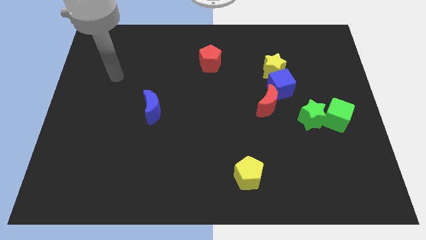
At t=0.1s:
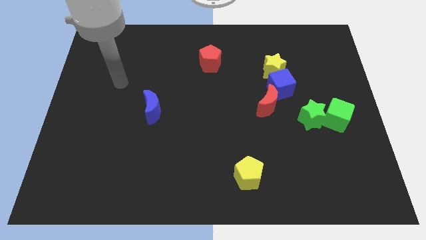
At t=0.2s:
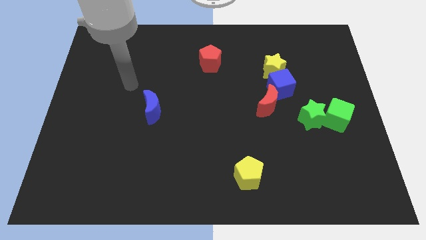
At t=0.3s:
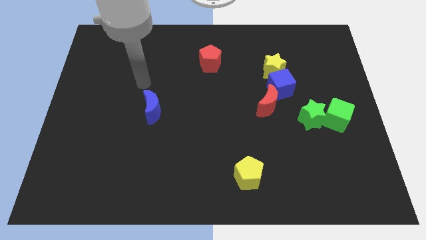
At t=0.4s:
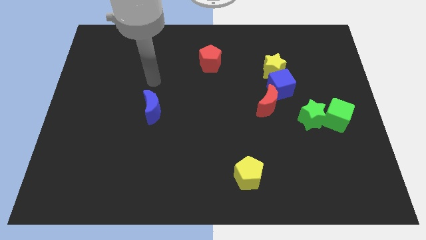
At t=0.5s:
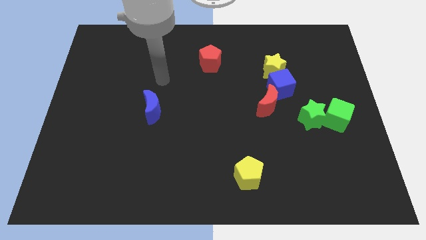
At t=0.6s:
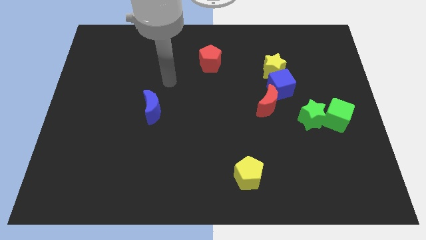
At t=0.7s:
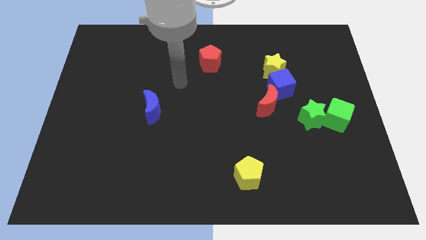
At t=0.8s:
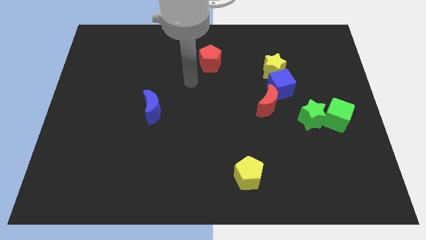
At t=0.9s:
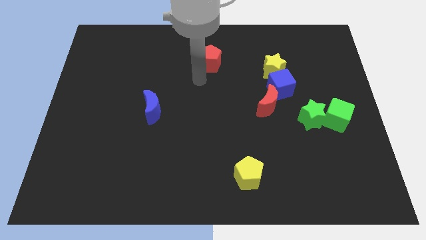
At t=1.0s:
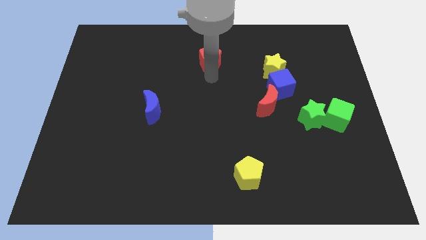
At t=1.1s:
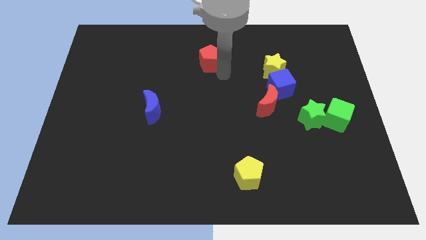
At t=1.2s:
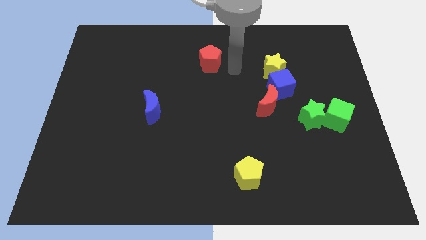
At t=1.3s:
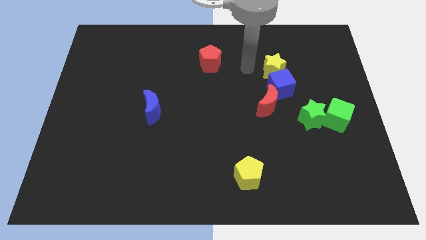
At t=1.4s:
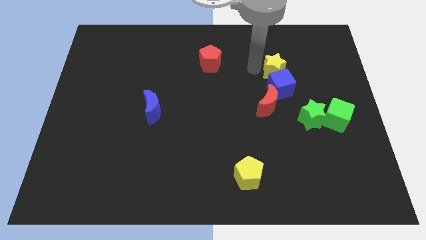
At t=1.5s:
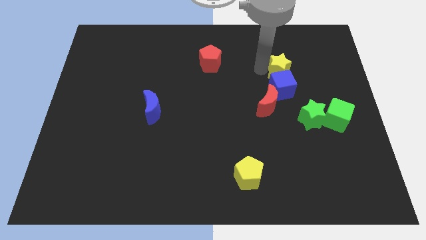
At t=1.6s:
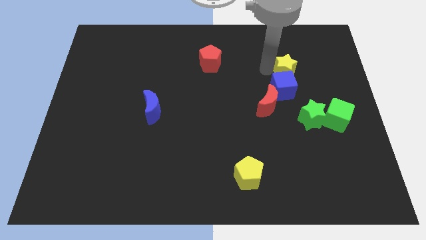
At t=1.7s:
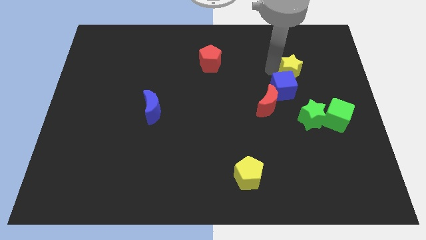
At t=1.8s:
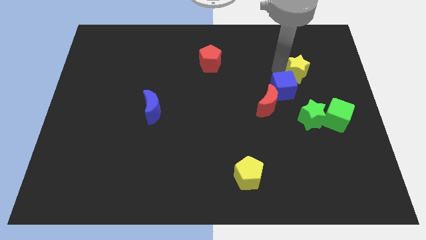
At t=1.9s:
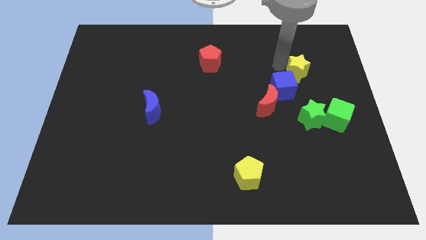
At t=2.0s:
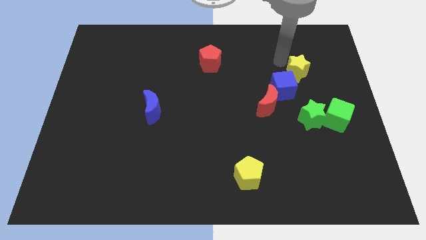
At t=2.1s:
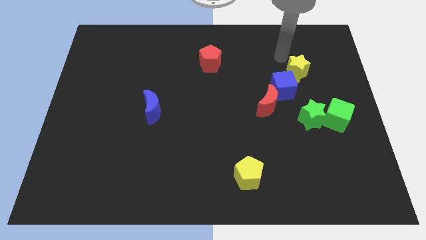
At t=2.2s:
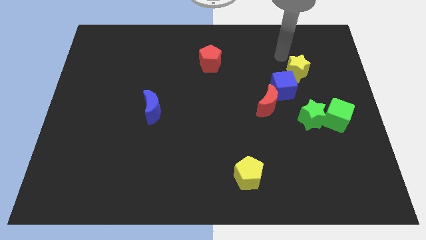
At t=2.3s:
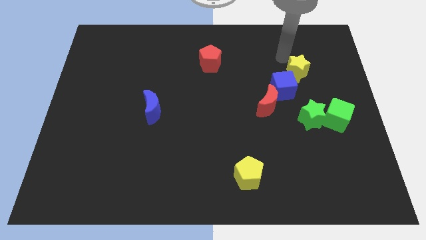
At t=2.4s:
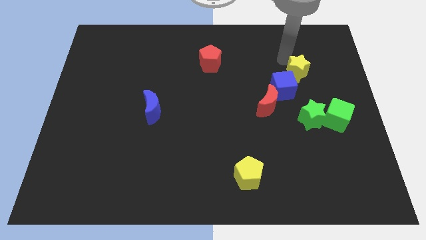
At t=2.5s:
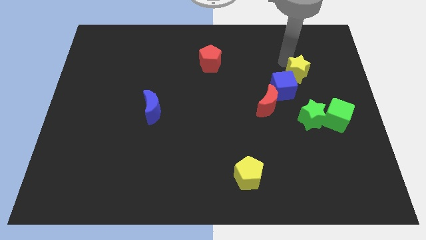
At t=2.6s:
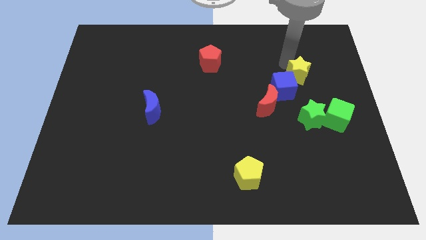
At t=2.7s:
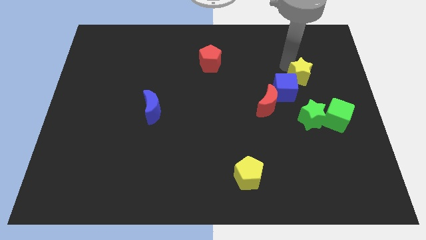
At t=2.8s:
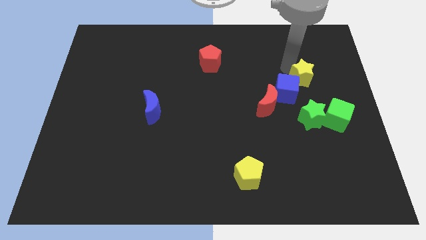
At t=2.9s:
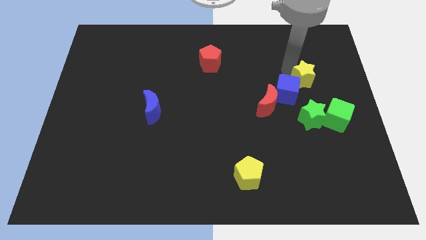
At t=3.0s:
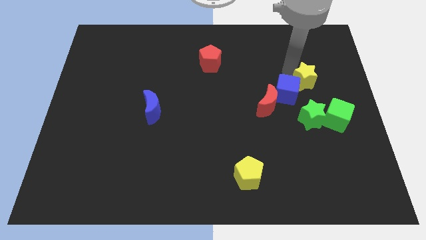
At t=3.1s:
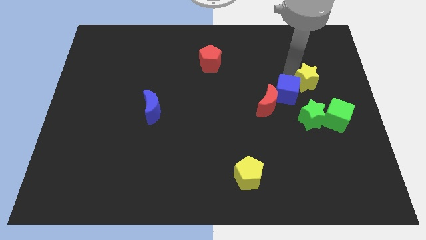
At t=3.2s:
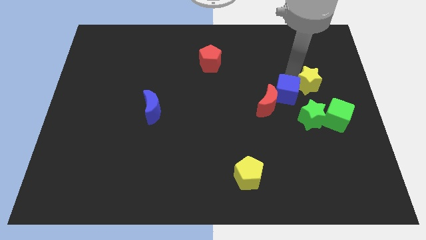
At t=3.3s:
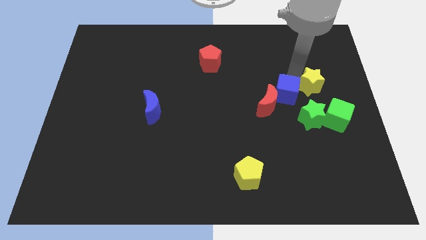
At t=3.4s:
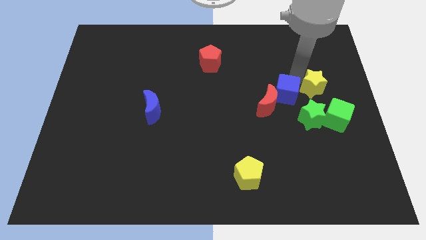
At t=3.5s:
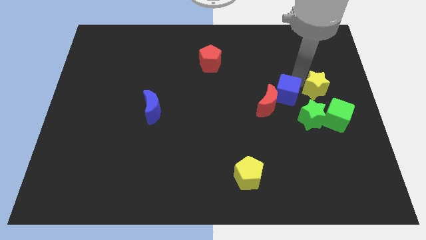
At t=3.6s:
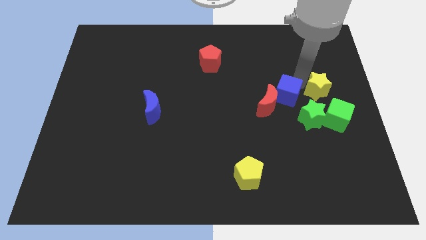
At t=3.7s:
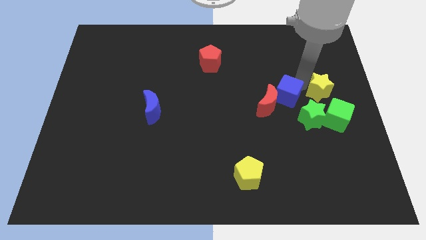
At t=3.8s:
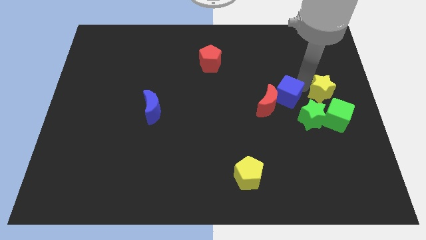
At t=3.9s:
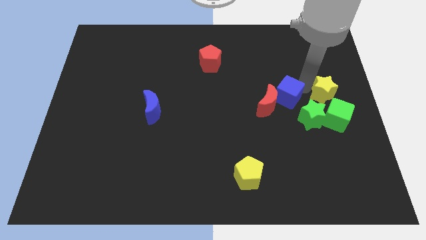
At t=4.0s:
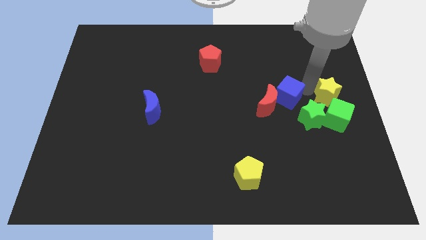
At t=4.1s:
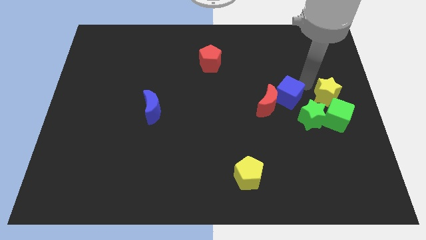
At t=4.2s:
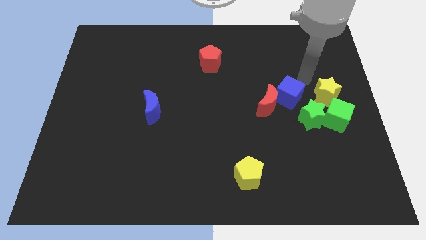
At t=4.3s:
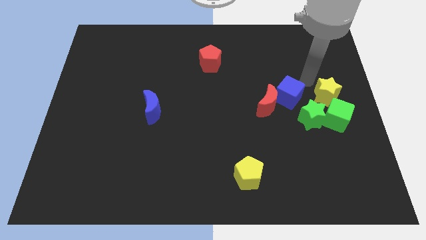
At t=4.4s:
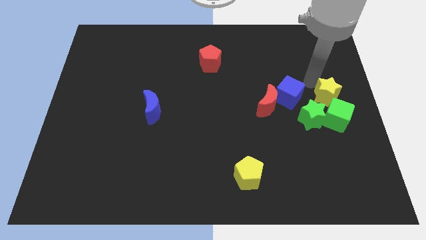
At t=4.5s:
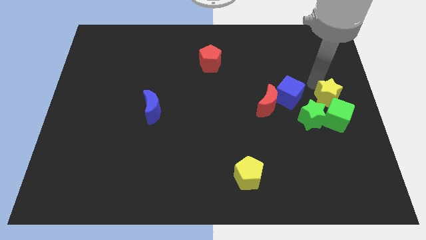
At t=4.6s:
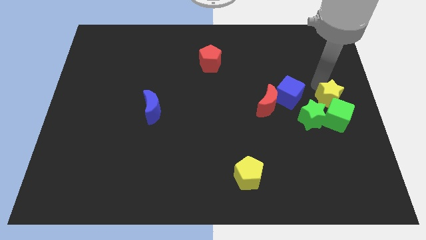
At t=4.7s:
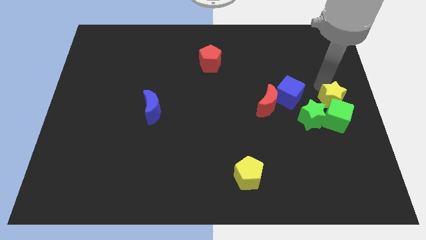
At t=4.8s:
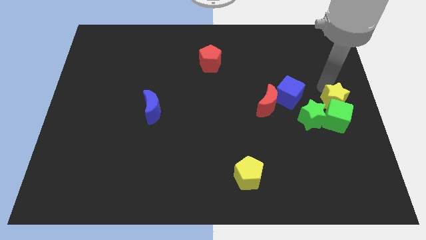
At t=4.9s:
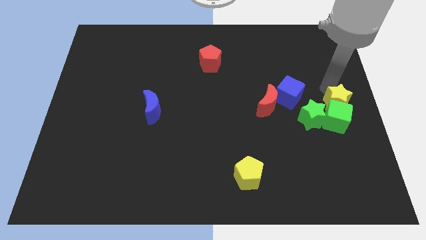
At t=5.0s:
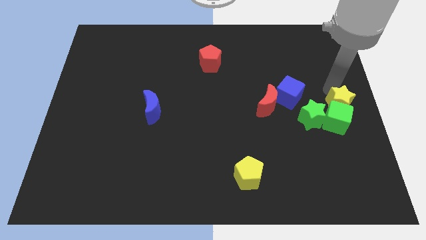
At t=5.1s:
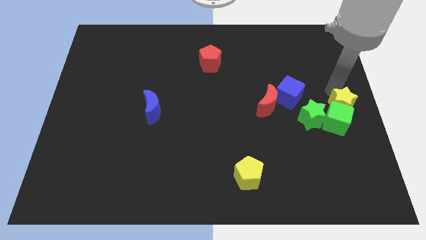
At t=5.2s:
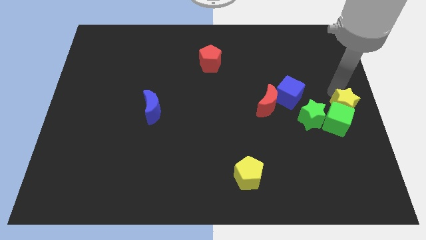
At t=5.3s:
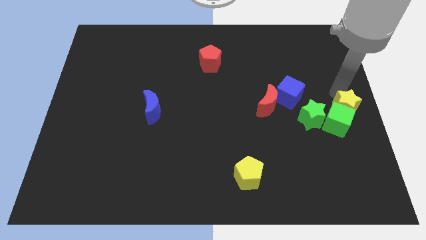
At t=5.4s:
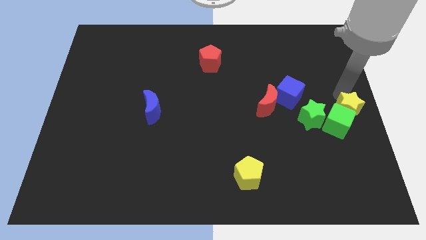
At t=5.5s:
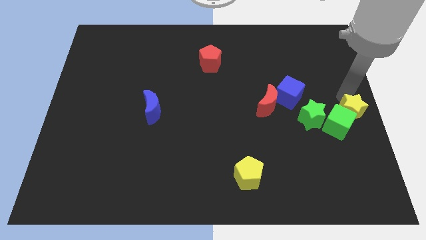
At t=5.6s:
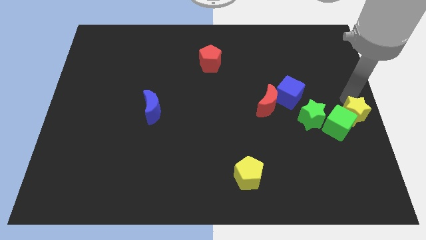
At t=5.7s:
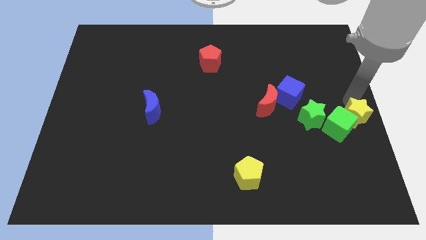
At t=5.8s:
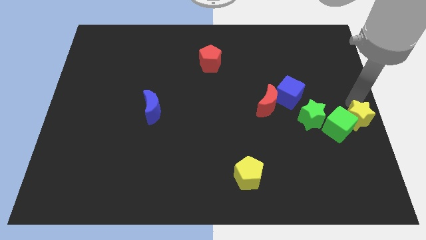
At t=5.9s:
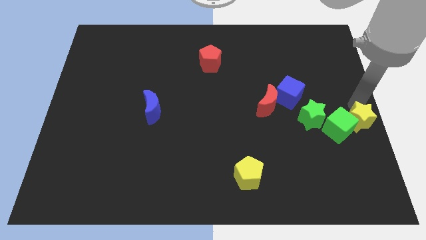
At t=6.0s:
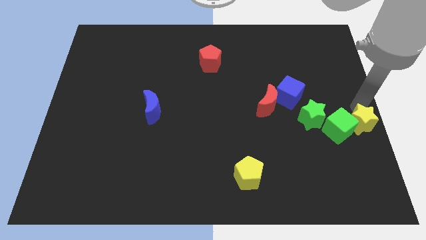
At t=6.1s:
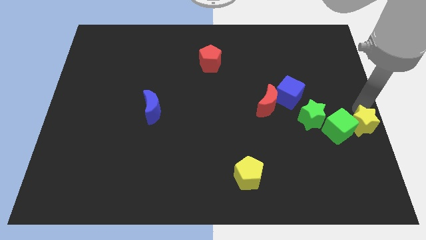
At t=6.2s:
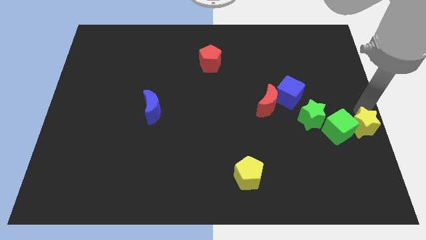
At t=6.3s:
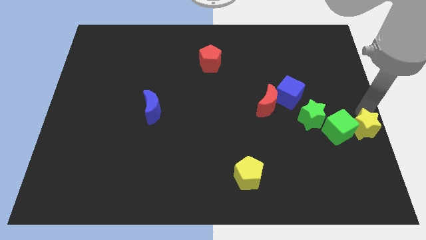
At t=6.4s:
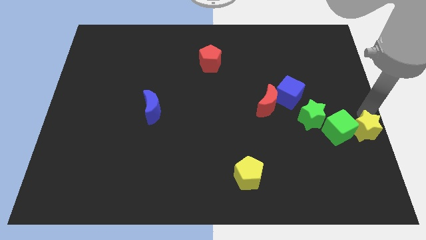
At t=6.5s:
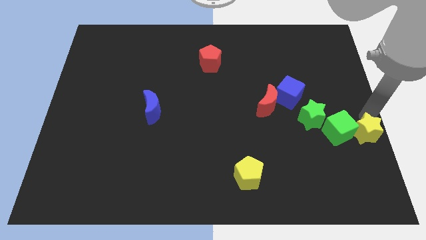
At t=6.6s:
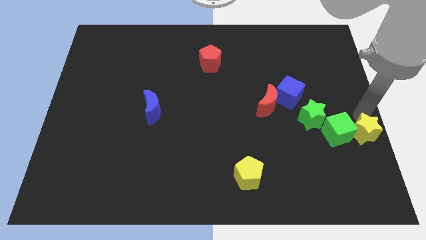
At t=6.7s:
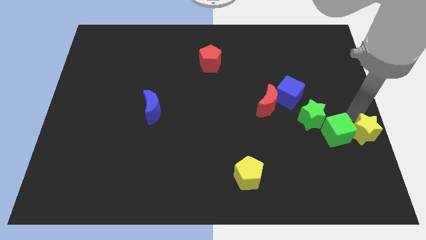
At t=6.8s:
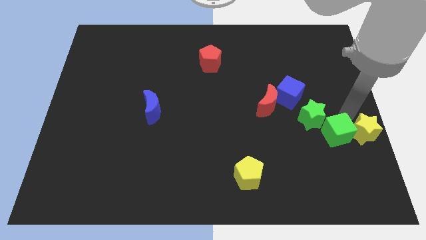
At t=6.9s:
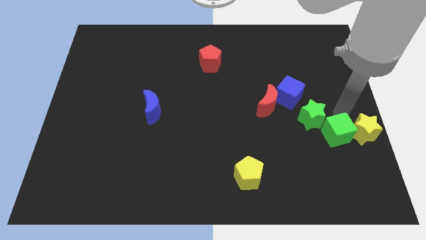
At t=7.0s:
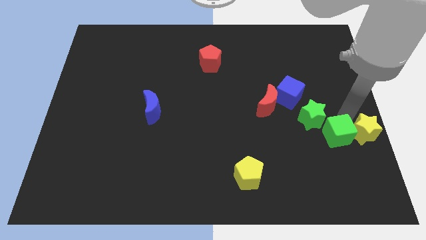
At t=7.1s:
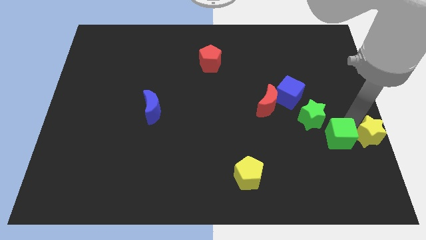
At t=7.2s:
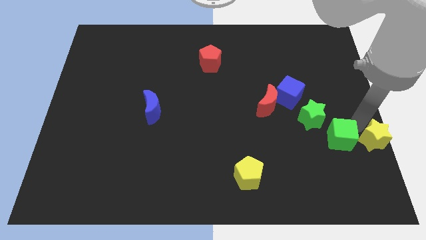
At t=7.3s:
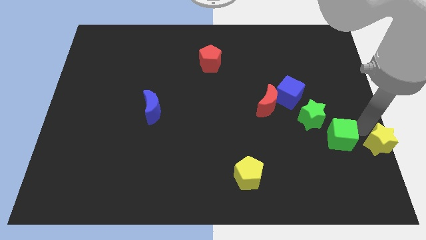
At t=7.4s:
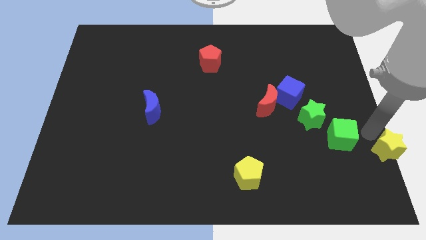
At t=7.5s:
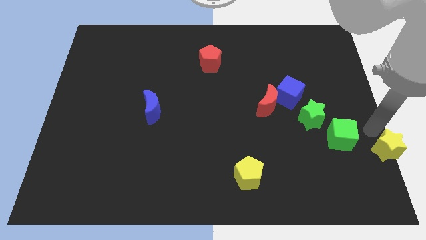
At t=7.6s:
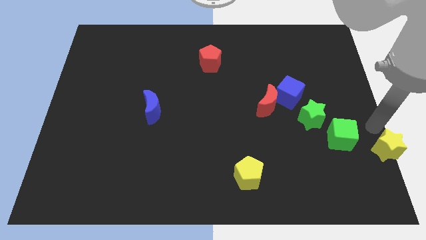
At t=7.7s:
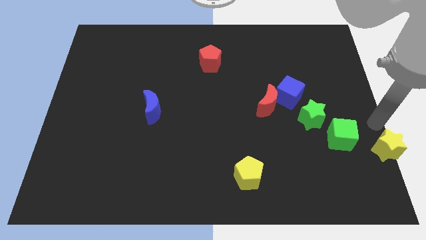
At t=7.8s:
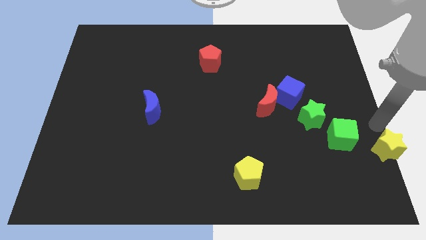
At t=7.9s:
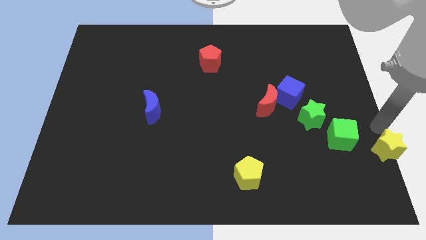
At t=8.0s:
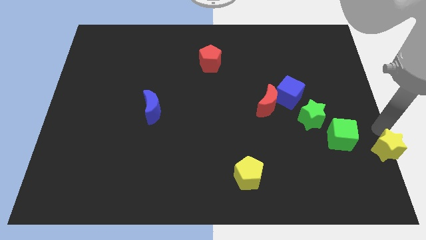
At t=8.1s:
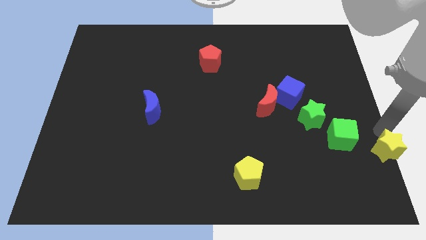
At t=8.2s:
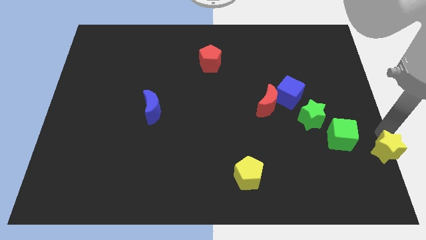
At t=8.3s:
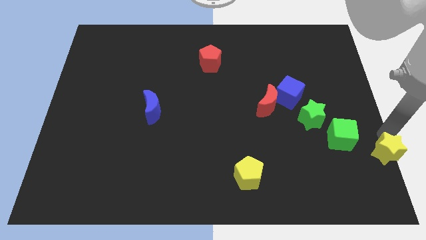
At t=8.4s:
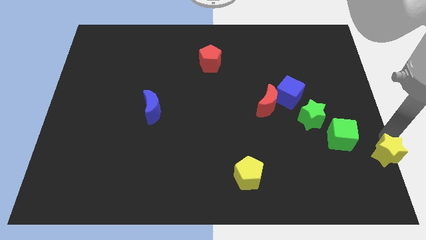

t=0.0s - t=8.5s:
put the yellow star to the bottom right
